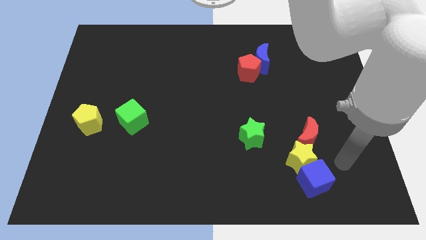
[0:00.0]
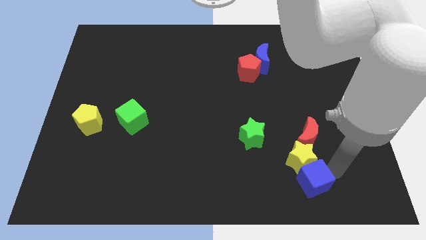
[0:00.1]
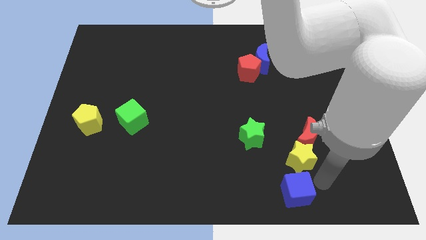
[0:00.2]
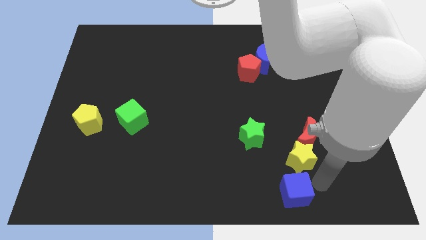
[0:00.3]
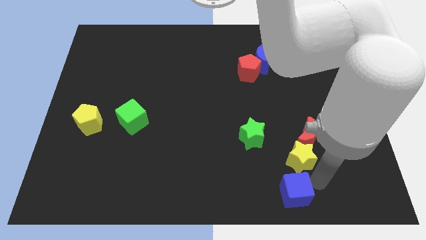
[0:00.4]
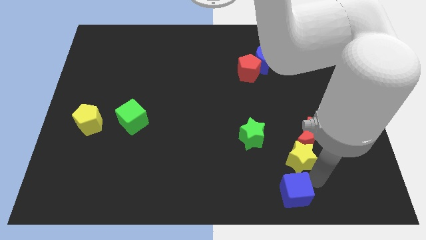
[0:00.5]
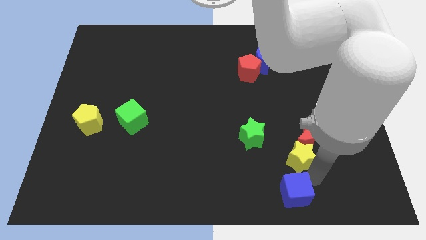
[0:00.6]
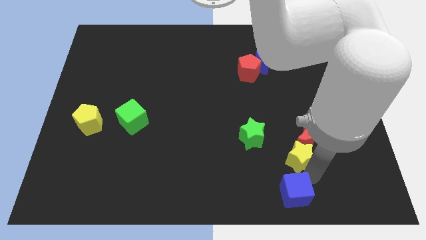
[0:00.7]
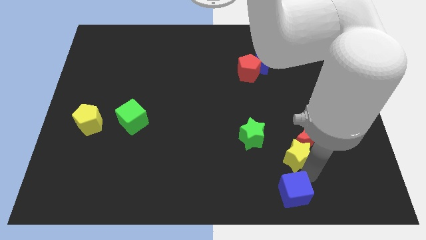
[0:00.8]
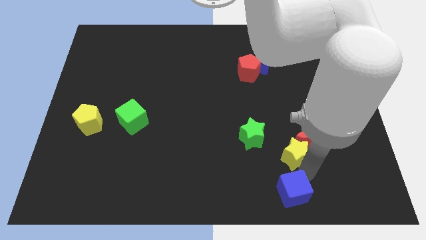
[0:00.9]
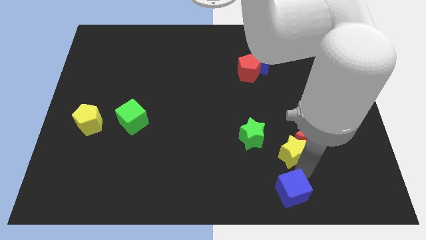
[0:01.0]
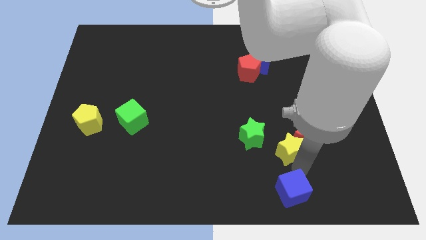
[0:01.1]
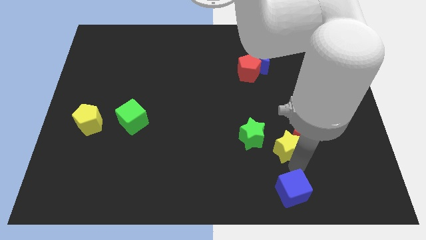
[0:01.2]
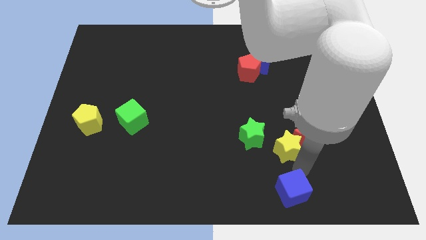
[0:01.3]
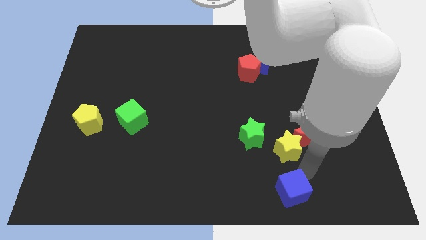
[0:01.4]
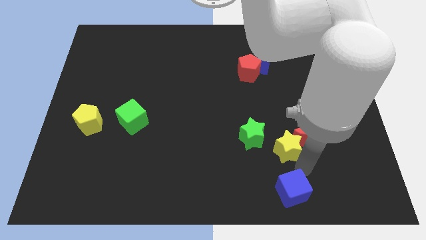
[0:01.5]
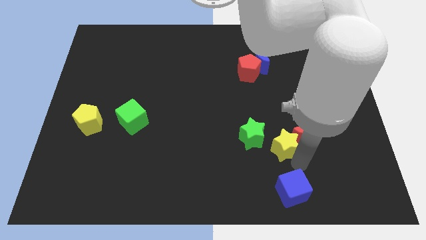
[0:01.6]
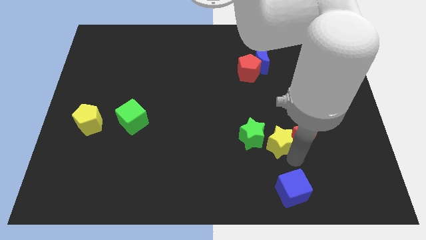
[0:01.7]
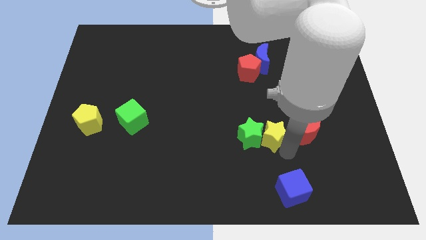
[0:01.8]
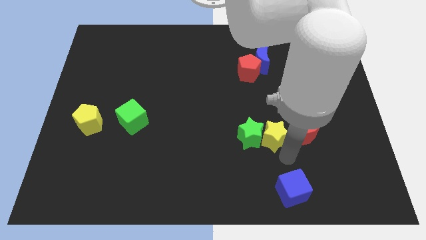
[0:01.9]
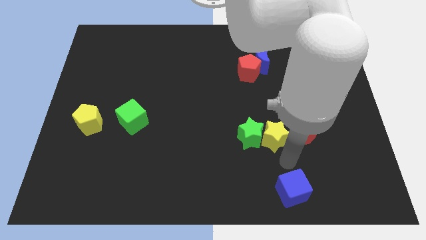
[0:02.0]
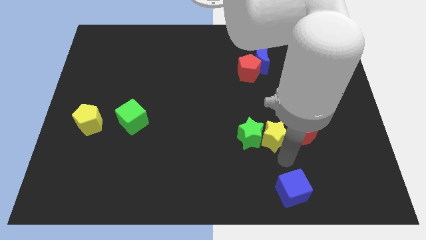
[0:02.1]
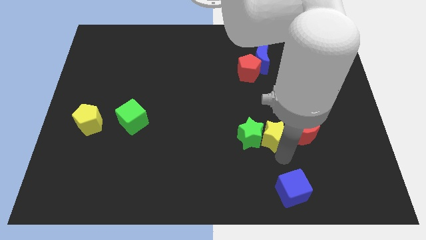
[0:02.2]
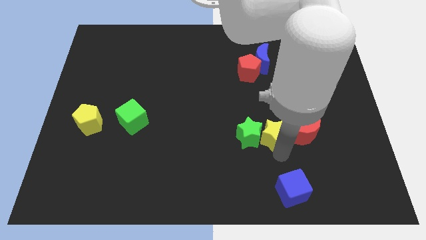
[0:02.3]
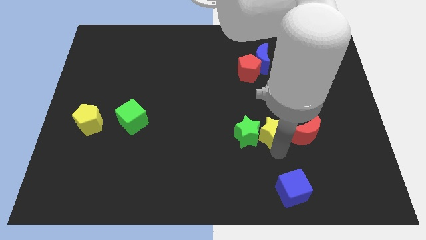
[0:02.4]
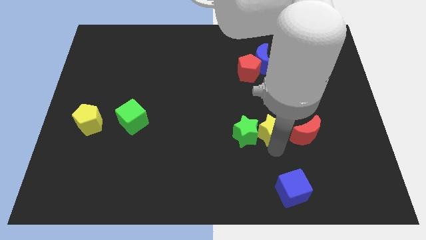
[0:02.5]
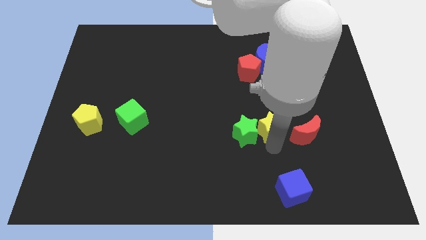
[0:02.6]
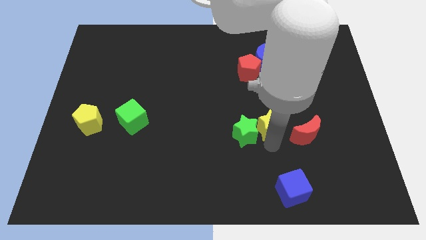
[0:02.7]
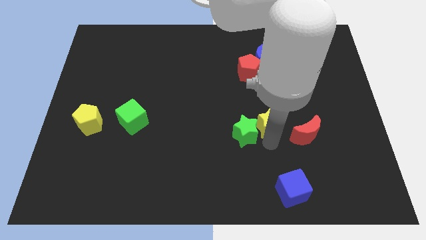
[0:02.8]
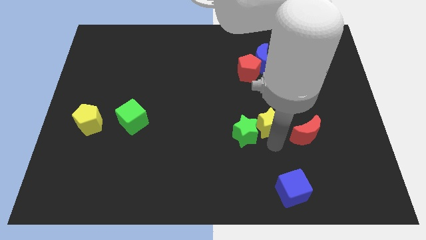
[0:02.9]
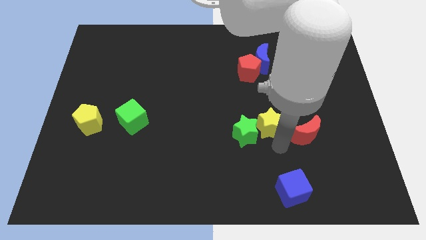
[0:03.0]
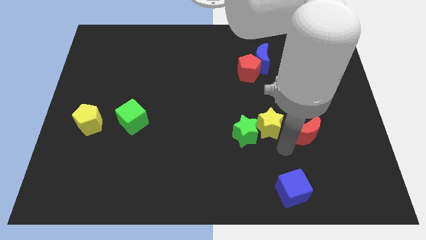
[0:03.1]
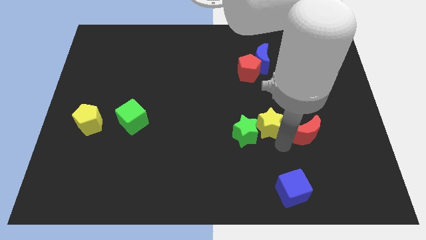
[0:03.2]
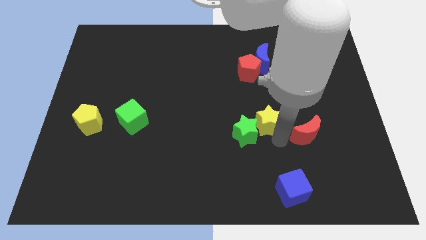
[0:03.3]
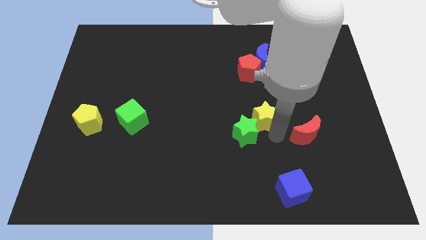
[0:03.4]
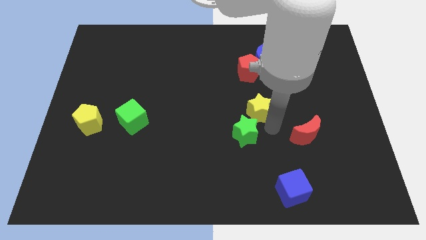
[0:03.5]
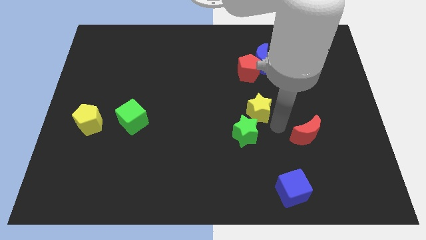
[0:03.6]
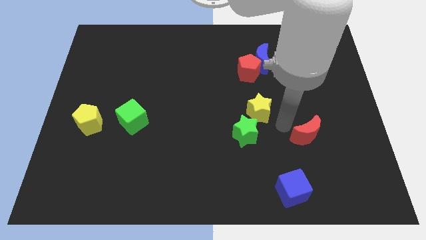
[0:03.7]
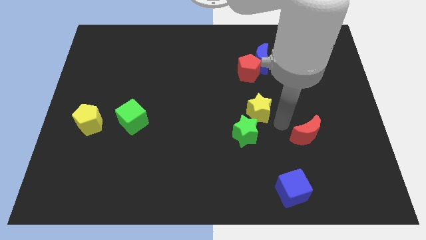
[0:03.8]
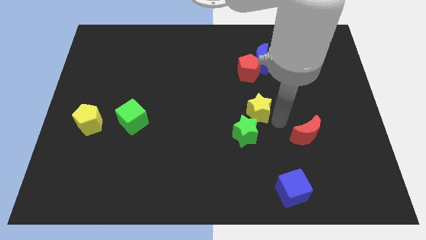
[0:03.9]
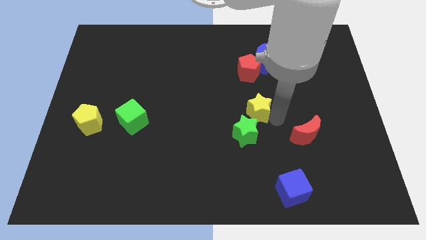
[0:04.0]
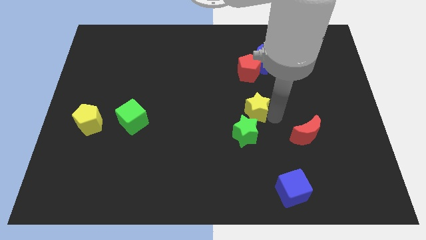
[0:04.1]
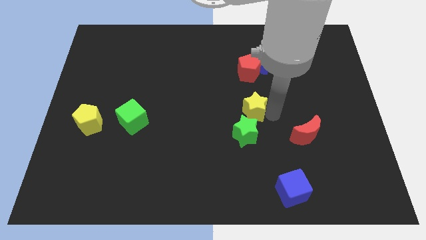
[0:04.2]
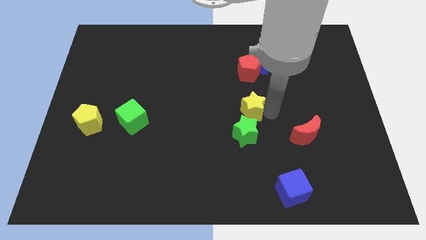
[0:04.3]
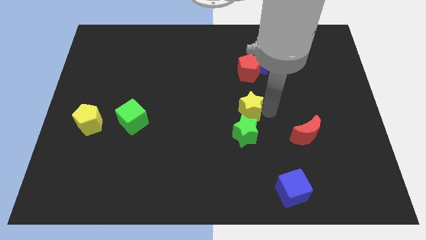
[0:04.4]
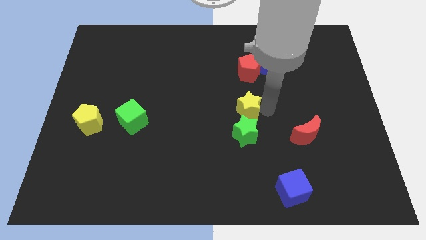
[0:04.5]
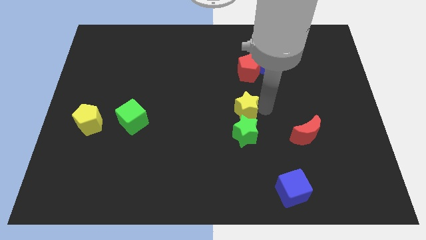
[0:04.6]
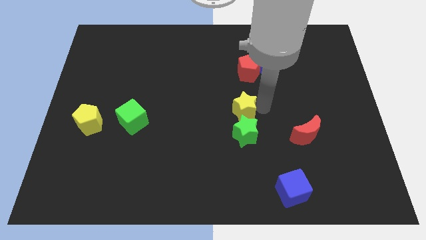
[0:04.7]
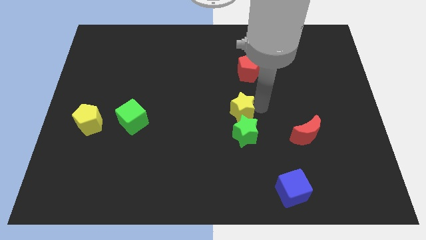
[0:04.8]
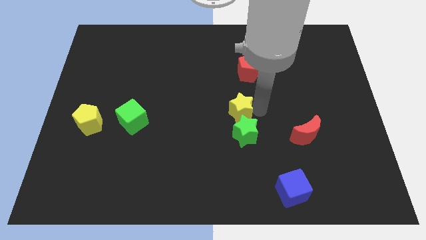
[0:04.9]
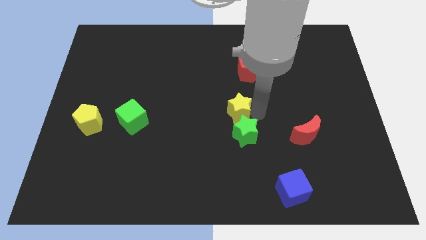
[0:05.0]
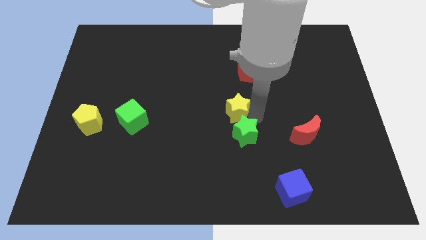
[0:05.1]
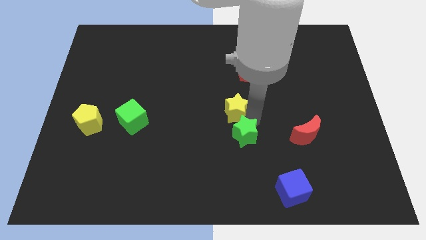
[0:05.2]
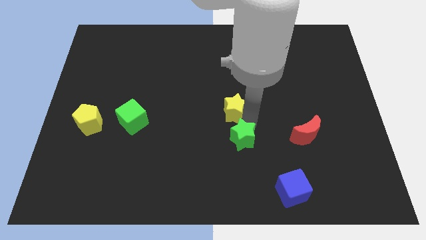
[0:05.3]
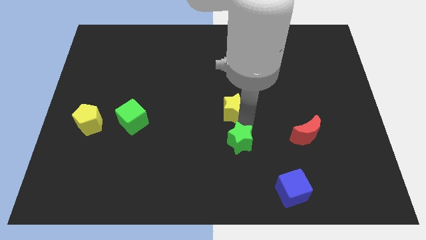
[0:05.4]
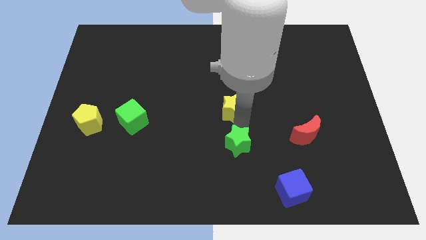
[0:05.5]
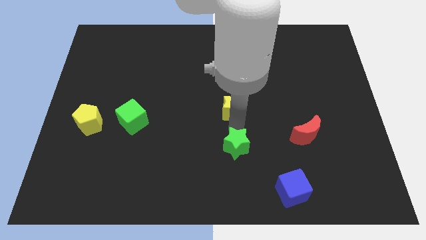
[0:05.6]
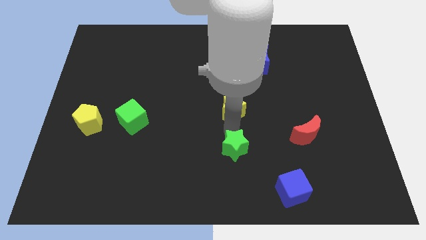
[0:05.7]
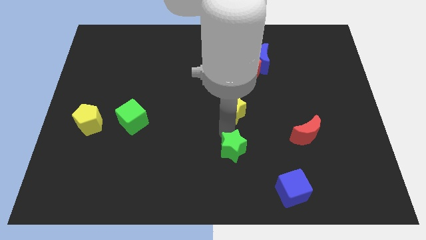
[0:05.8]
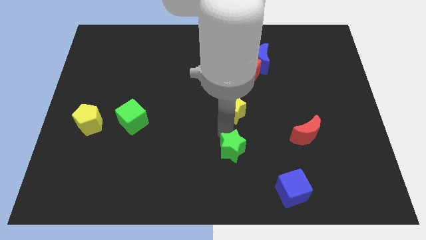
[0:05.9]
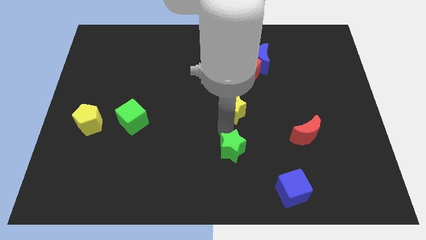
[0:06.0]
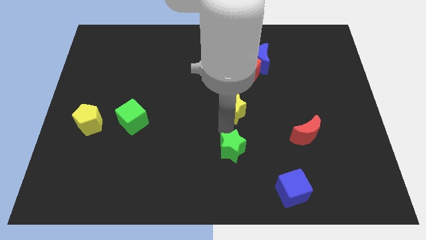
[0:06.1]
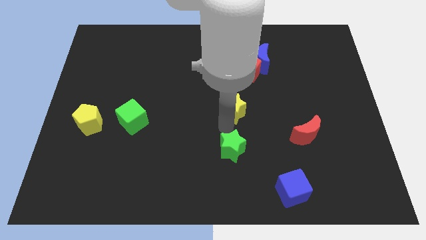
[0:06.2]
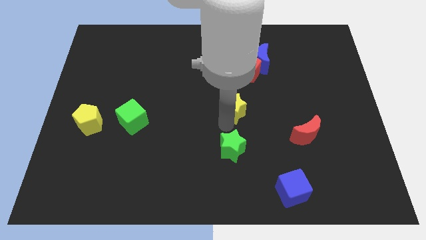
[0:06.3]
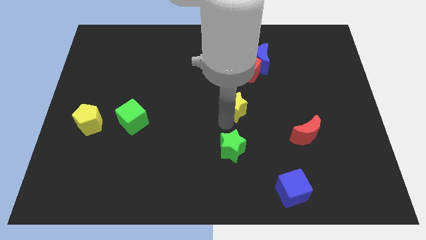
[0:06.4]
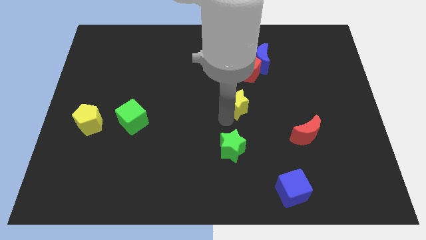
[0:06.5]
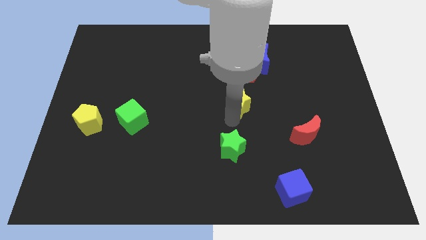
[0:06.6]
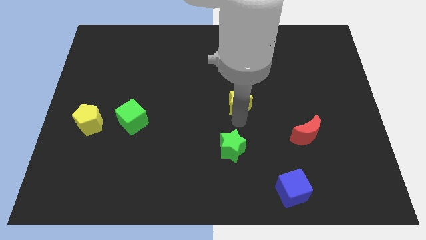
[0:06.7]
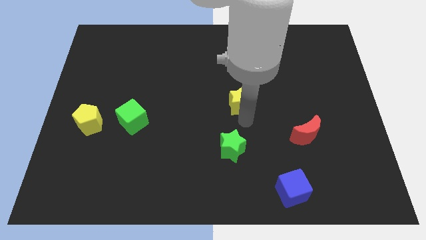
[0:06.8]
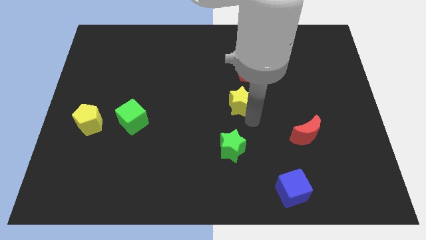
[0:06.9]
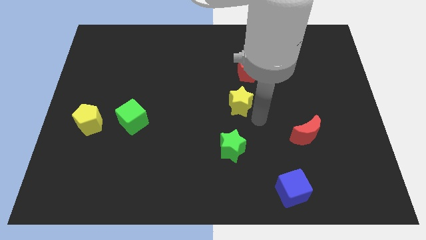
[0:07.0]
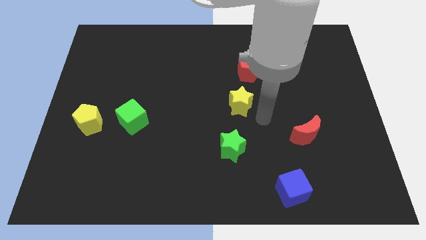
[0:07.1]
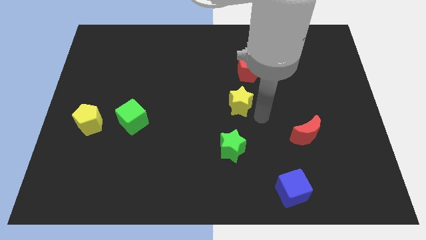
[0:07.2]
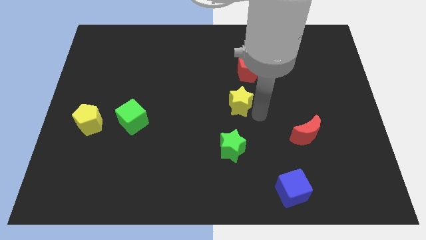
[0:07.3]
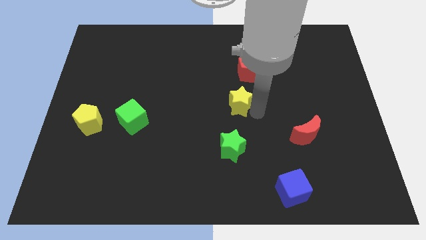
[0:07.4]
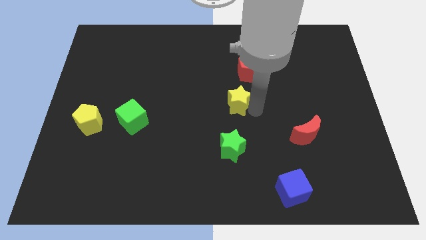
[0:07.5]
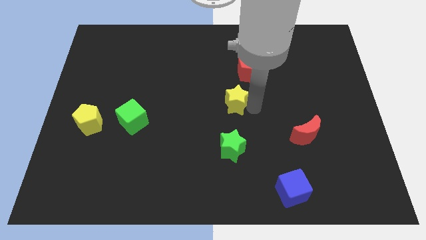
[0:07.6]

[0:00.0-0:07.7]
push the yellow star upwards and to the left diagonally
